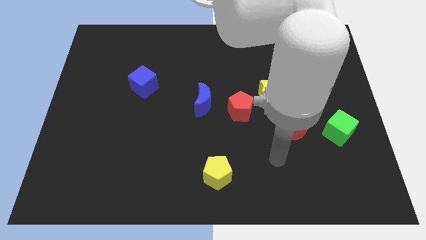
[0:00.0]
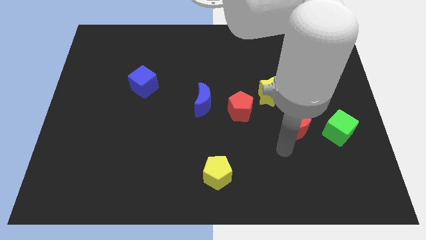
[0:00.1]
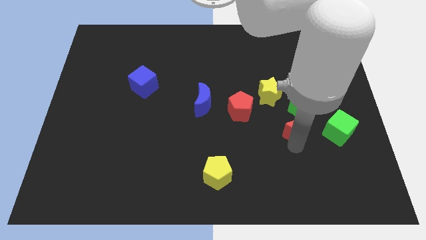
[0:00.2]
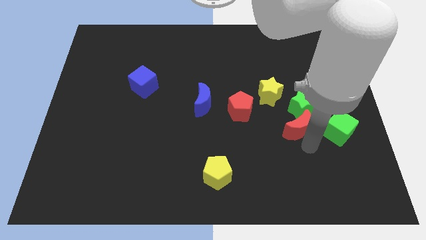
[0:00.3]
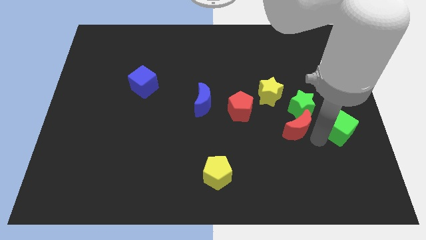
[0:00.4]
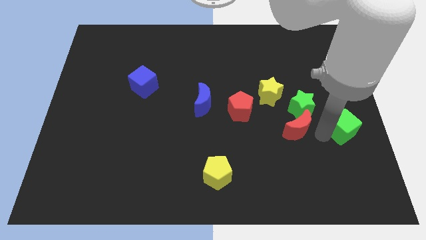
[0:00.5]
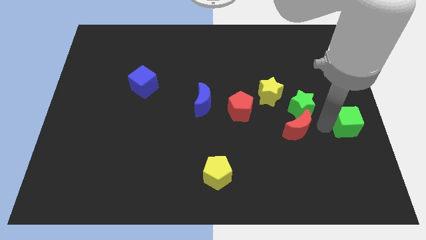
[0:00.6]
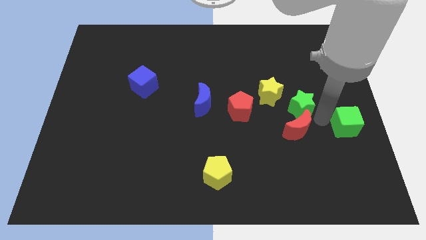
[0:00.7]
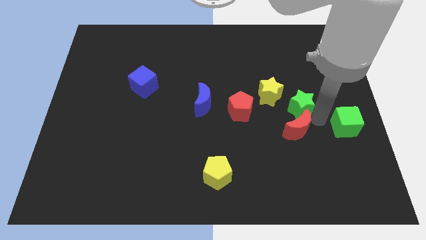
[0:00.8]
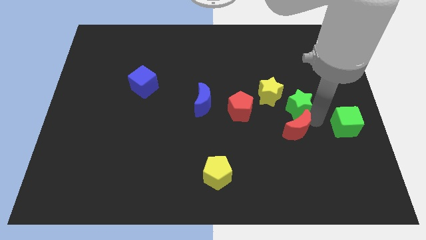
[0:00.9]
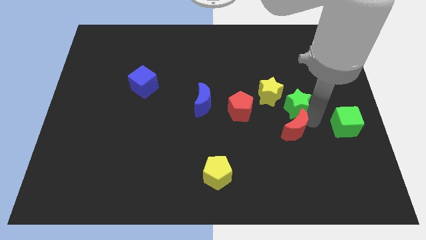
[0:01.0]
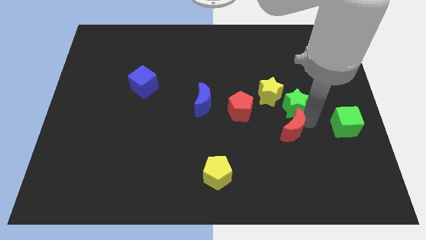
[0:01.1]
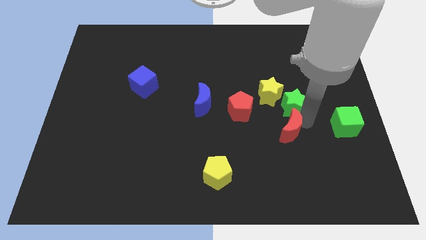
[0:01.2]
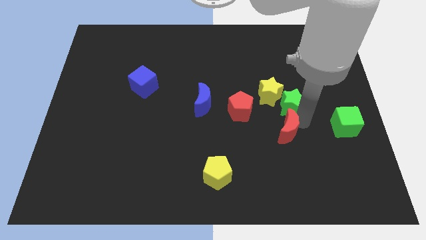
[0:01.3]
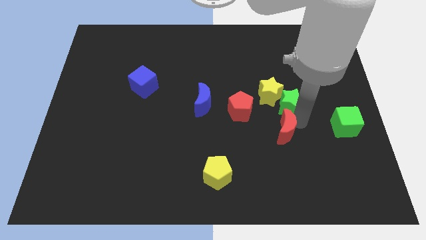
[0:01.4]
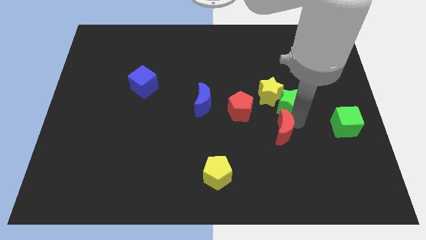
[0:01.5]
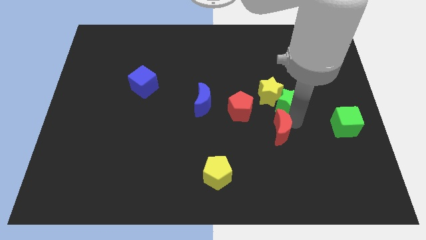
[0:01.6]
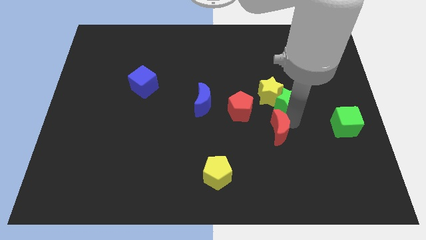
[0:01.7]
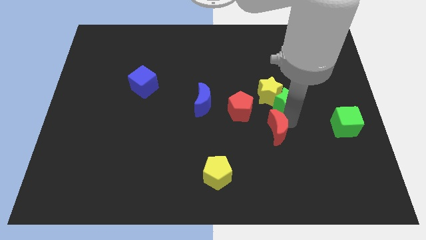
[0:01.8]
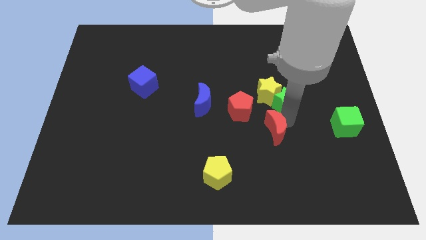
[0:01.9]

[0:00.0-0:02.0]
separate the red moon from the green star and green cube

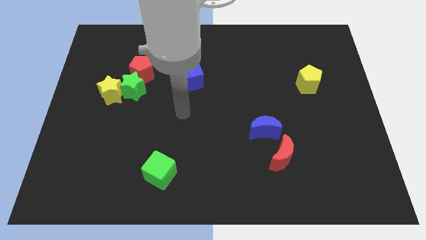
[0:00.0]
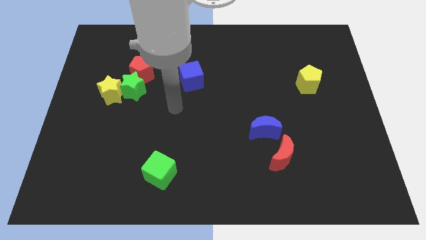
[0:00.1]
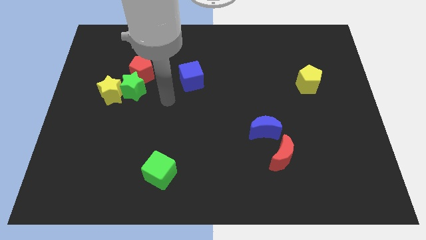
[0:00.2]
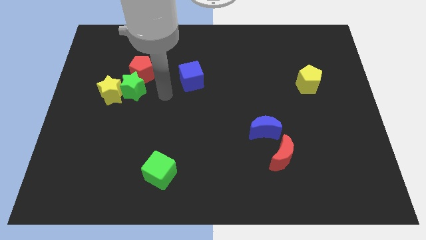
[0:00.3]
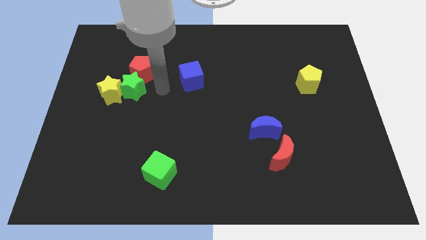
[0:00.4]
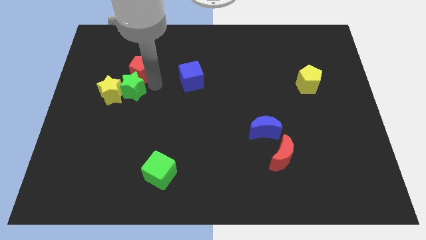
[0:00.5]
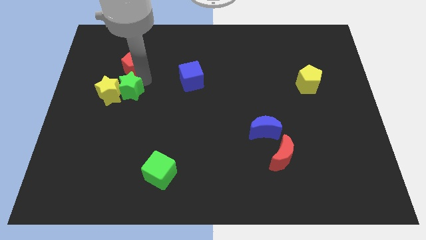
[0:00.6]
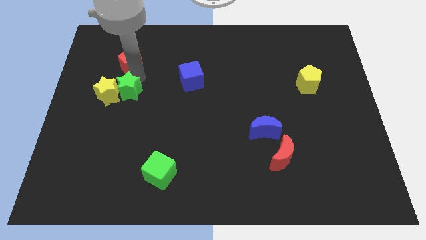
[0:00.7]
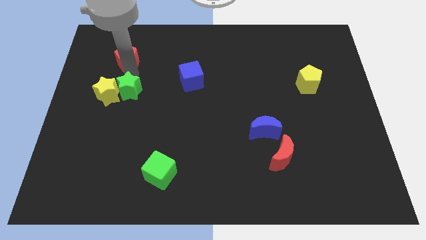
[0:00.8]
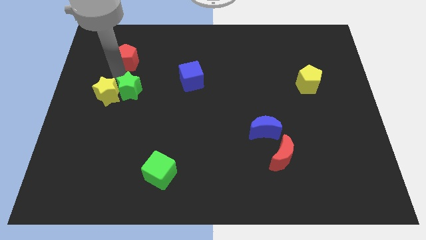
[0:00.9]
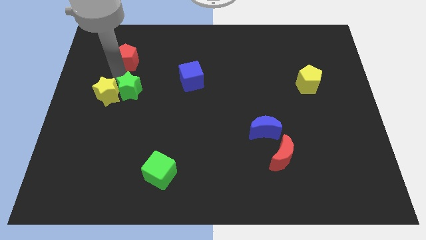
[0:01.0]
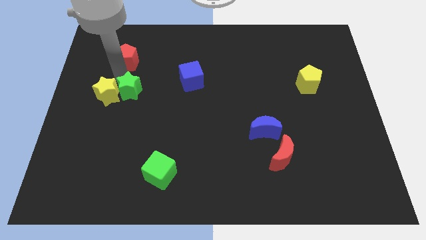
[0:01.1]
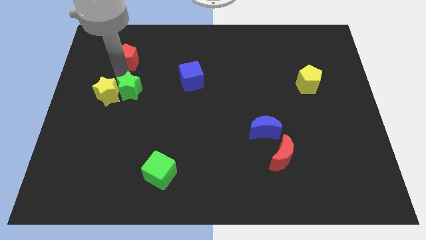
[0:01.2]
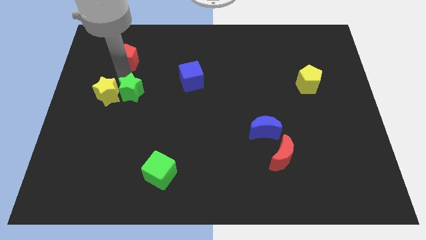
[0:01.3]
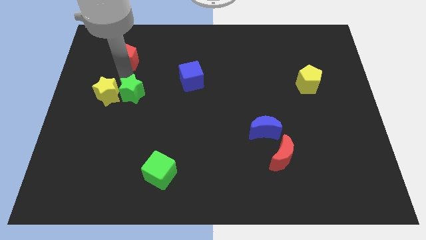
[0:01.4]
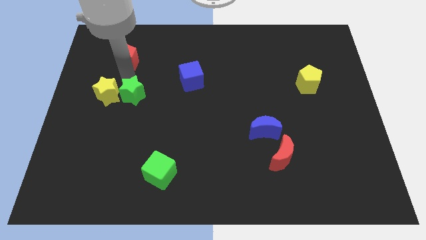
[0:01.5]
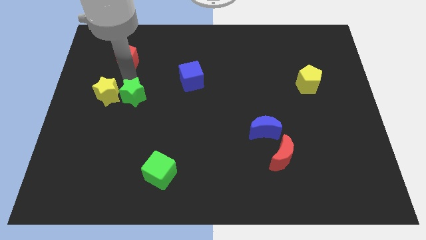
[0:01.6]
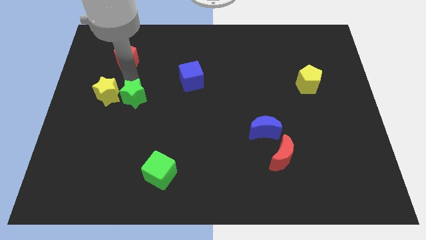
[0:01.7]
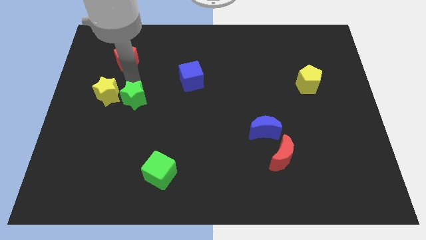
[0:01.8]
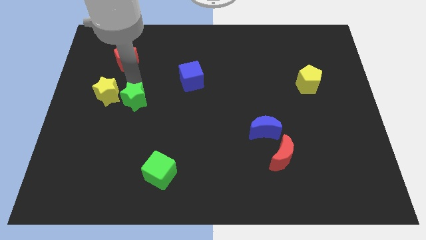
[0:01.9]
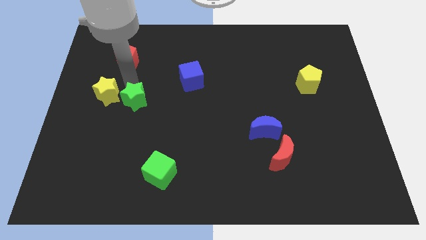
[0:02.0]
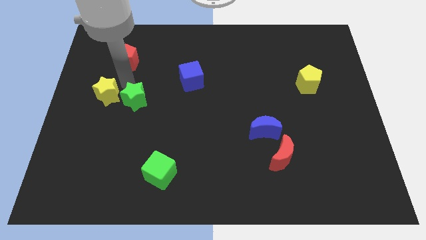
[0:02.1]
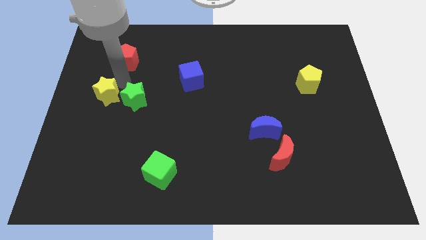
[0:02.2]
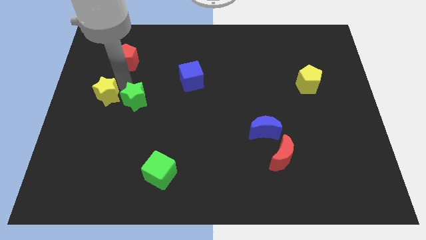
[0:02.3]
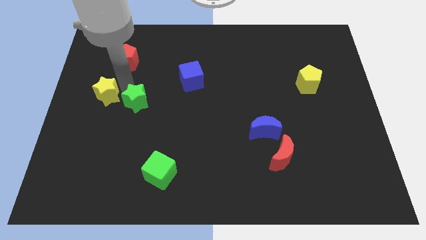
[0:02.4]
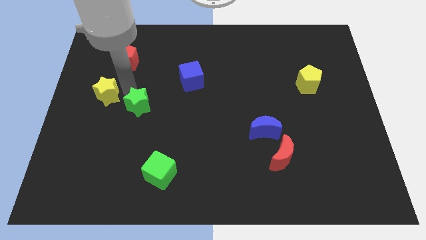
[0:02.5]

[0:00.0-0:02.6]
separate the green star from the yellow star and red pentagon

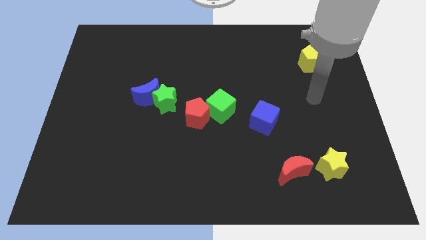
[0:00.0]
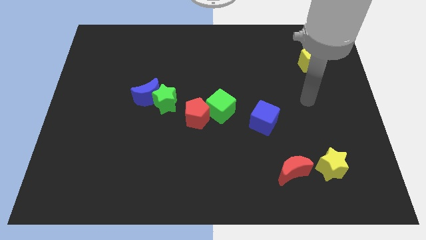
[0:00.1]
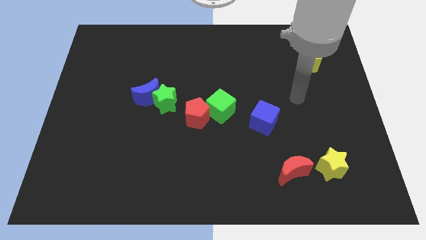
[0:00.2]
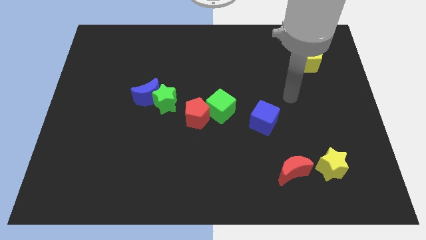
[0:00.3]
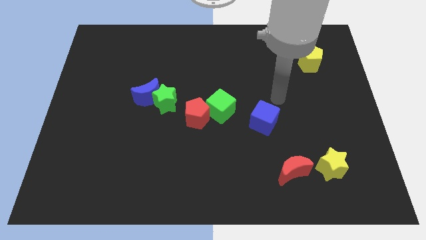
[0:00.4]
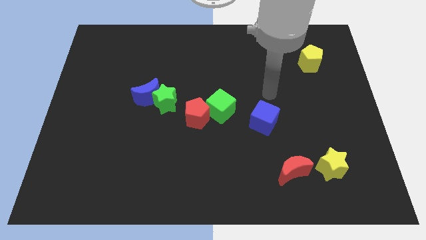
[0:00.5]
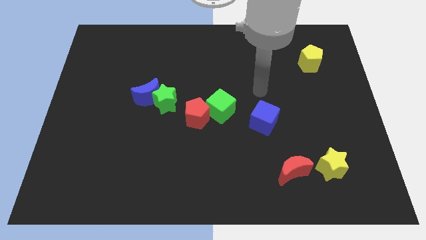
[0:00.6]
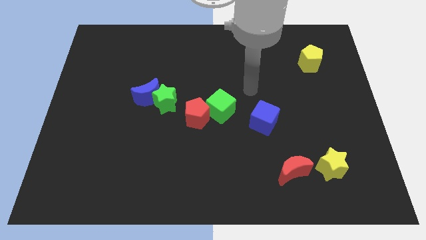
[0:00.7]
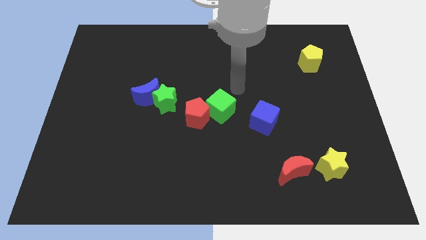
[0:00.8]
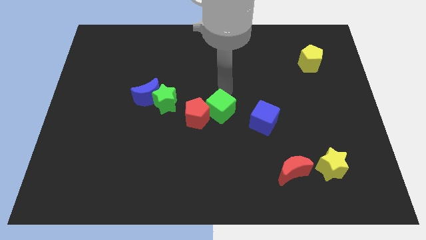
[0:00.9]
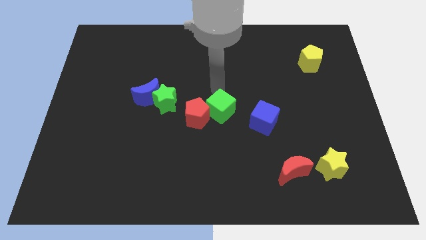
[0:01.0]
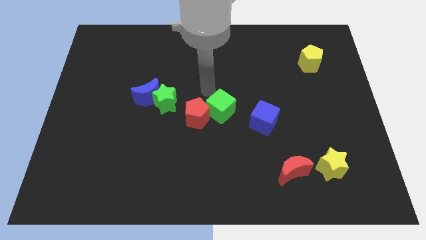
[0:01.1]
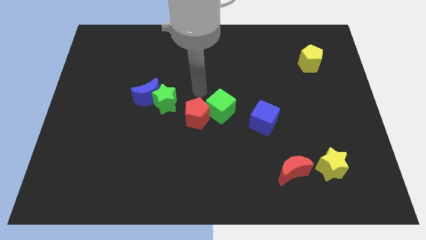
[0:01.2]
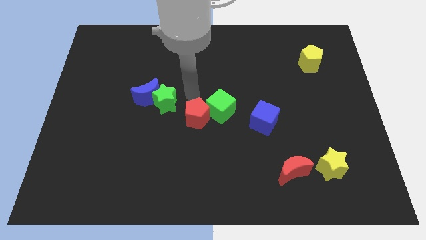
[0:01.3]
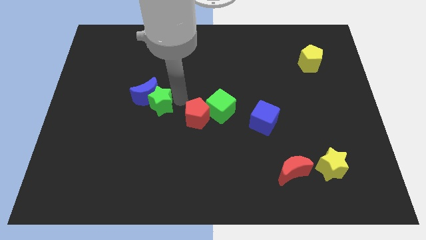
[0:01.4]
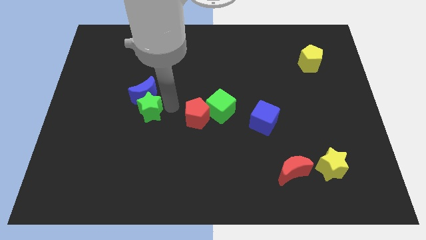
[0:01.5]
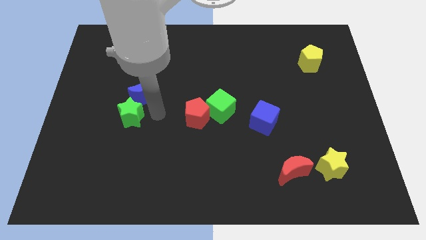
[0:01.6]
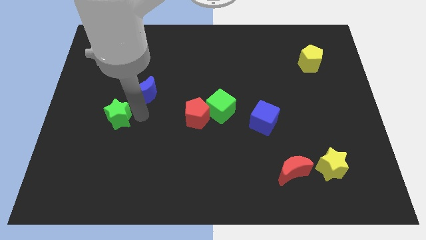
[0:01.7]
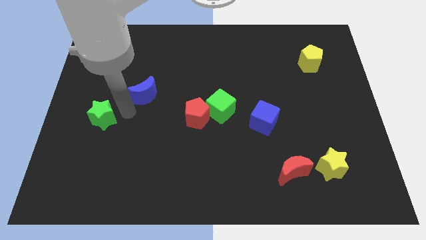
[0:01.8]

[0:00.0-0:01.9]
pull the blue moon apart from the green star

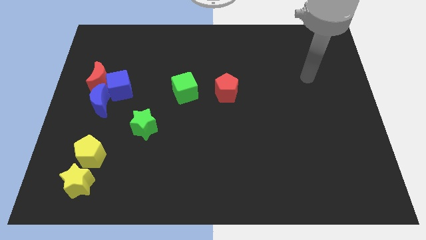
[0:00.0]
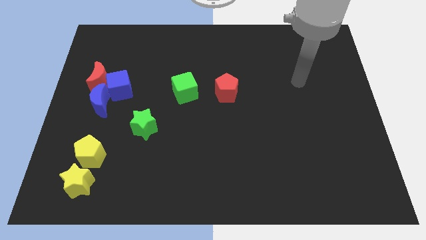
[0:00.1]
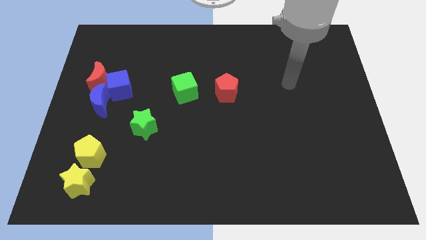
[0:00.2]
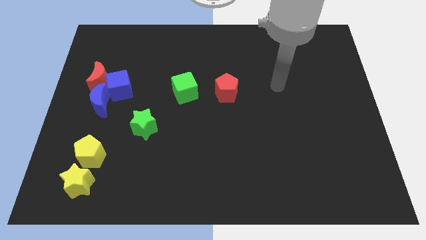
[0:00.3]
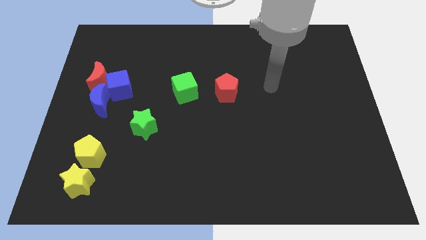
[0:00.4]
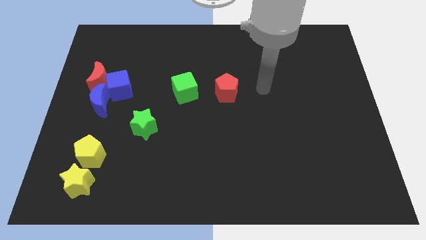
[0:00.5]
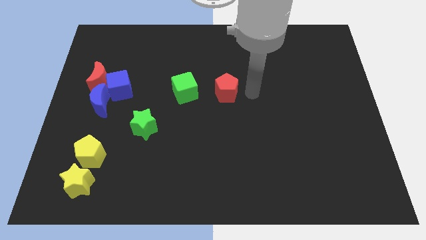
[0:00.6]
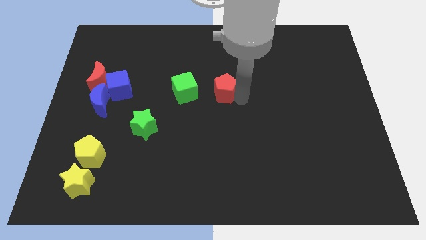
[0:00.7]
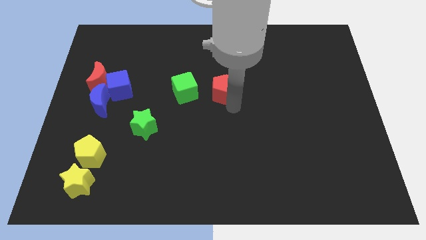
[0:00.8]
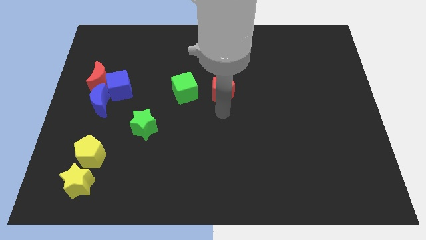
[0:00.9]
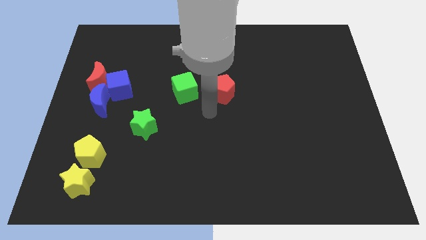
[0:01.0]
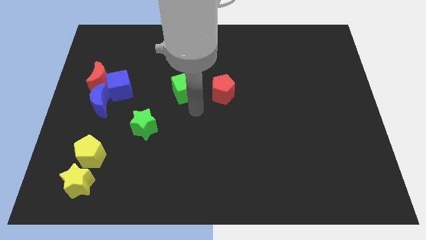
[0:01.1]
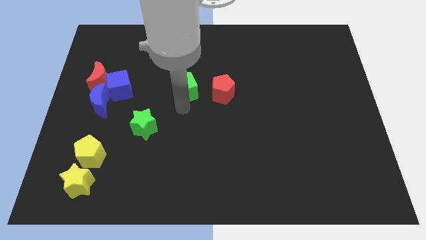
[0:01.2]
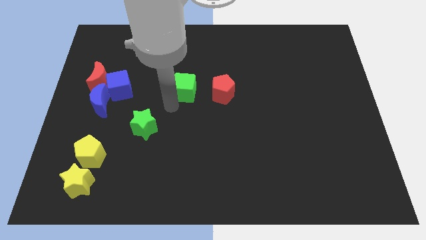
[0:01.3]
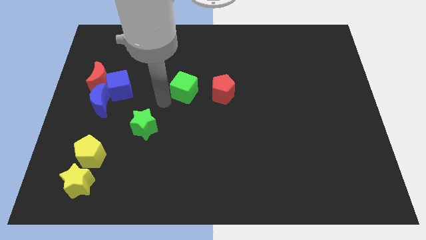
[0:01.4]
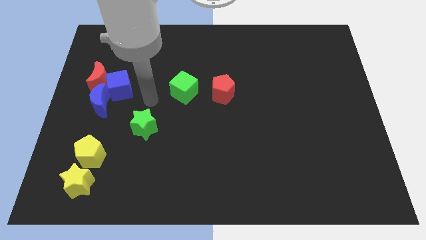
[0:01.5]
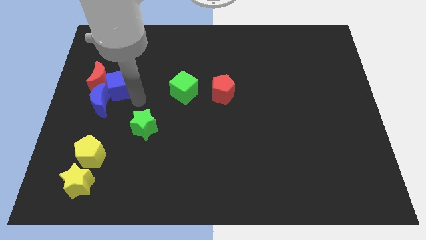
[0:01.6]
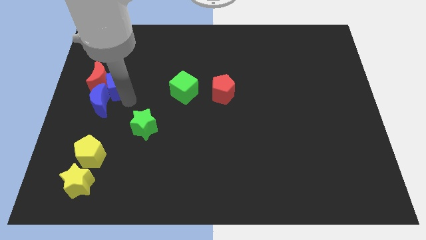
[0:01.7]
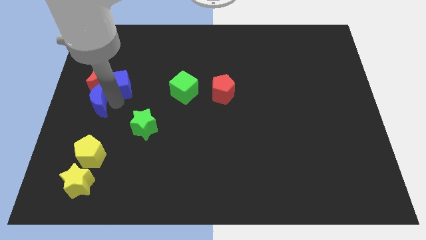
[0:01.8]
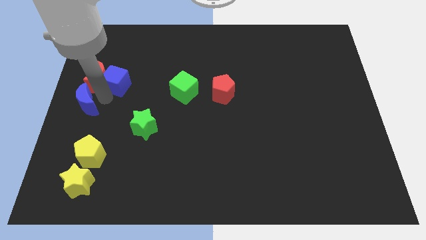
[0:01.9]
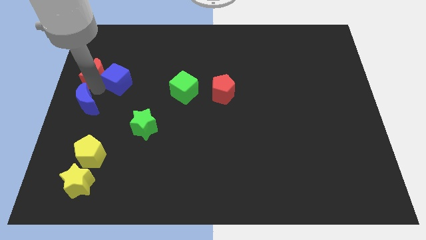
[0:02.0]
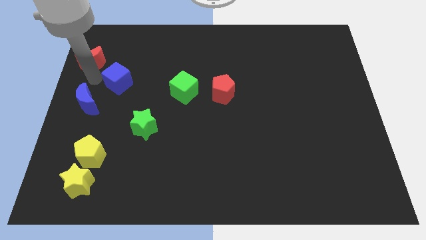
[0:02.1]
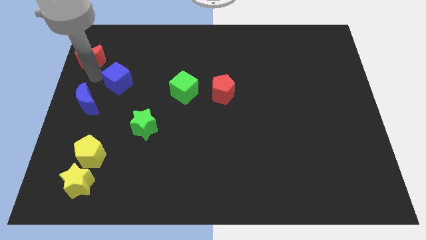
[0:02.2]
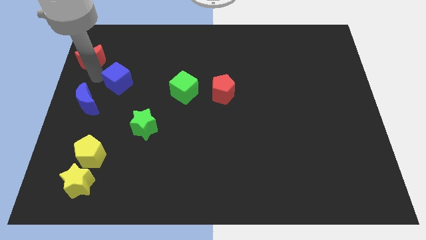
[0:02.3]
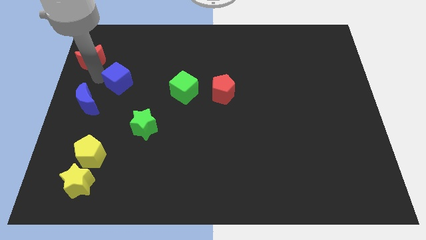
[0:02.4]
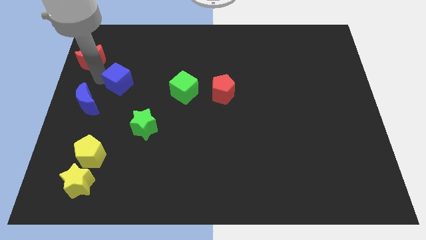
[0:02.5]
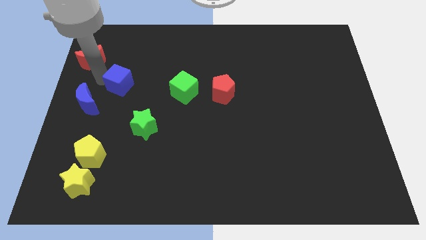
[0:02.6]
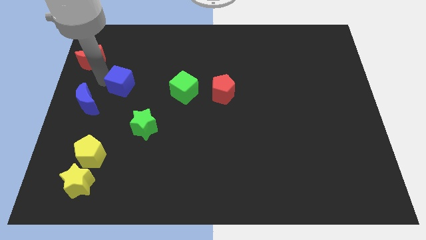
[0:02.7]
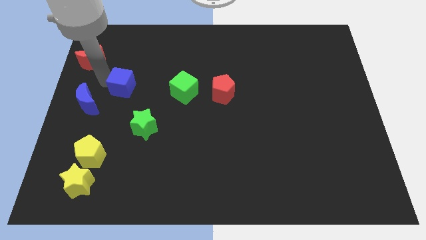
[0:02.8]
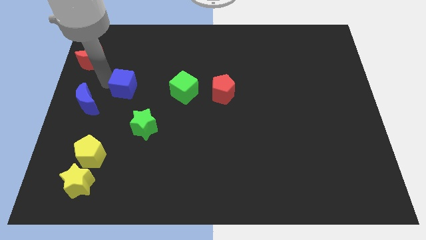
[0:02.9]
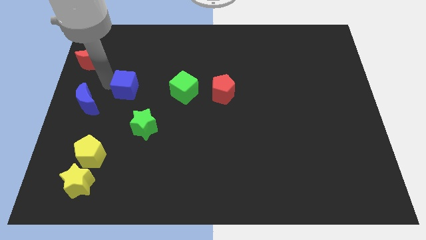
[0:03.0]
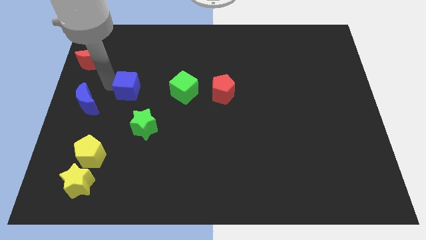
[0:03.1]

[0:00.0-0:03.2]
separate the blue cube from the red moon and blue moon
